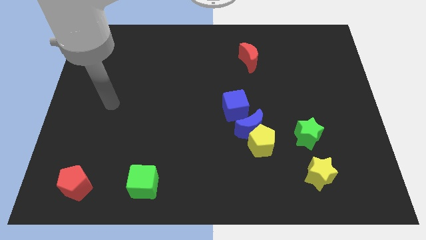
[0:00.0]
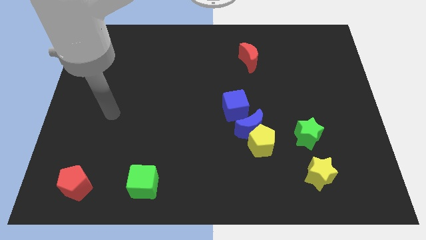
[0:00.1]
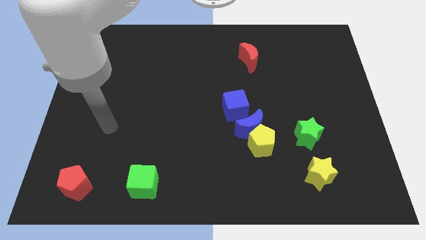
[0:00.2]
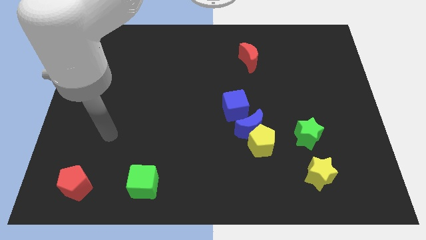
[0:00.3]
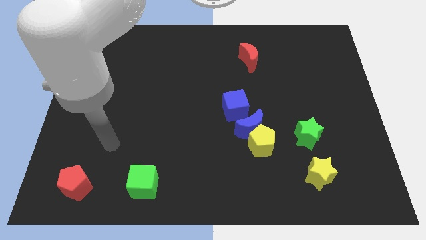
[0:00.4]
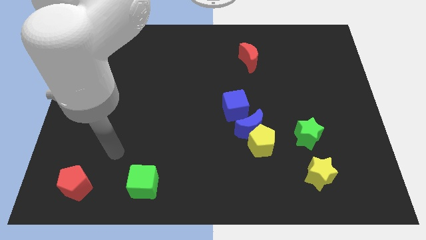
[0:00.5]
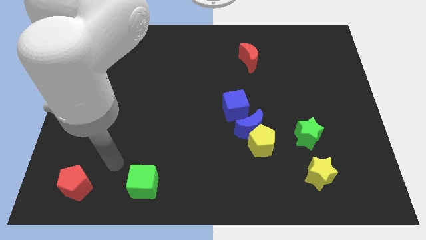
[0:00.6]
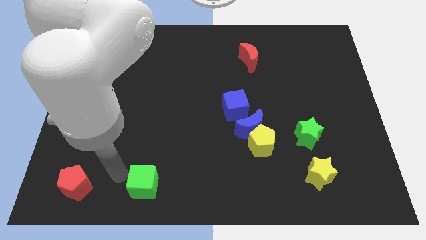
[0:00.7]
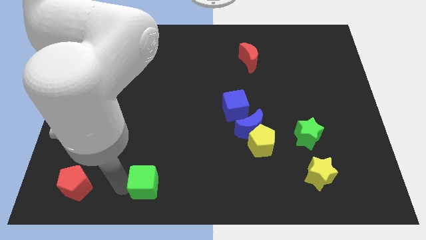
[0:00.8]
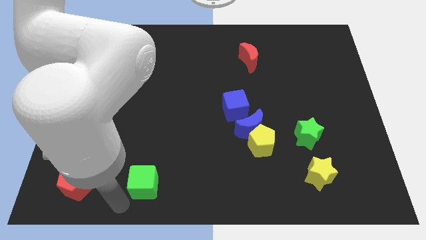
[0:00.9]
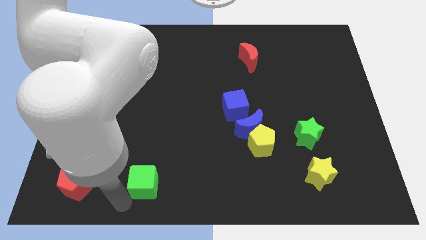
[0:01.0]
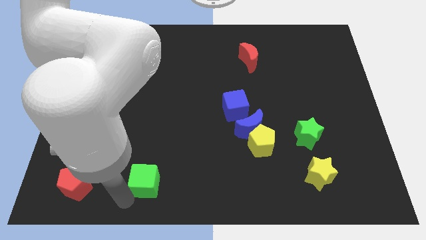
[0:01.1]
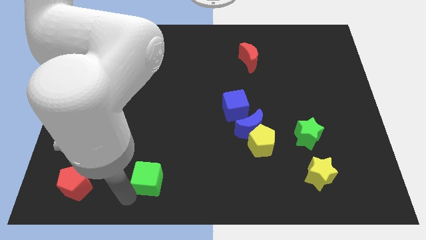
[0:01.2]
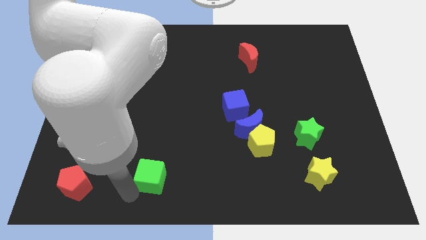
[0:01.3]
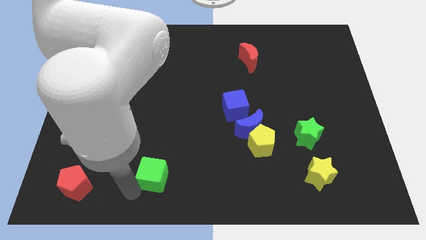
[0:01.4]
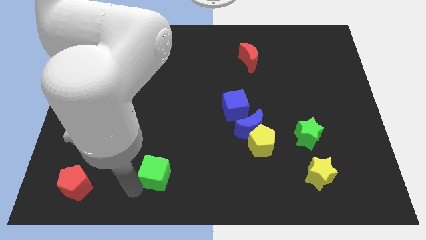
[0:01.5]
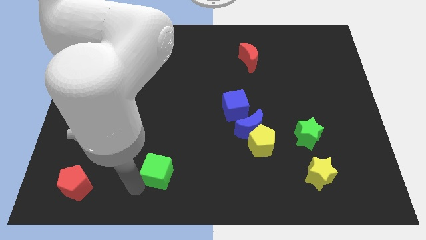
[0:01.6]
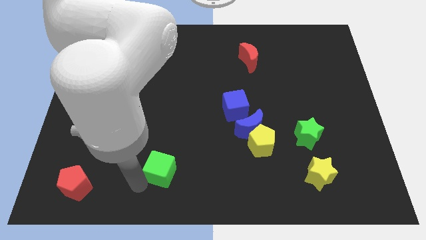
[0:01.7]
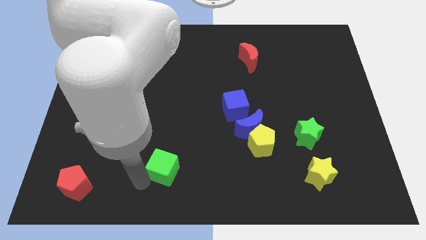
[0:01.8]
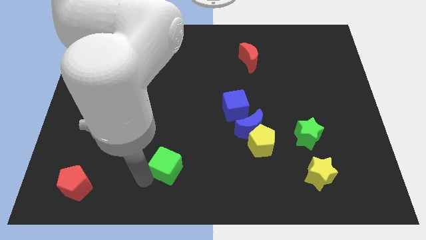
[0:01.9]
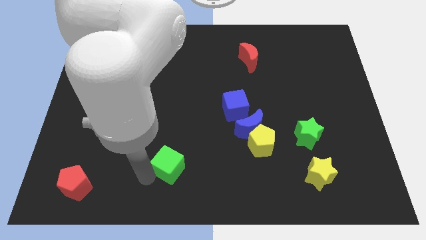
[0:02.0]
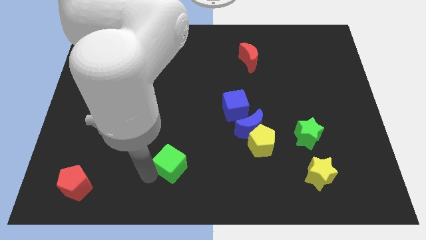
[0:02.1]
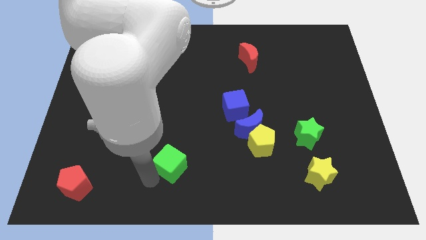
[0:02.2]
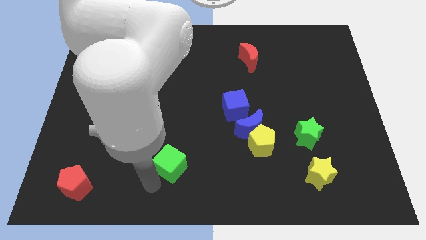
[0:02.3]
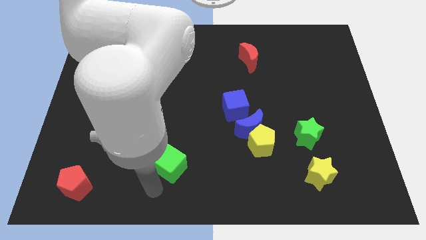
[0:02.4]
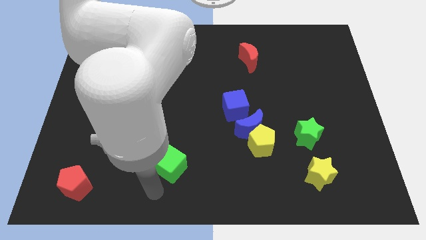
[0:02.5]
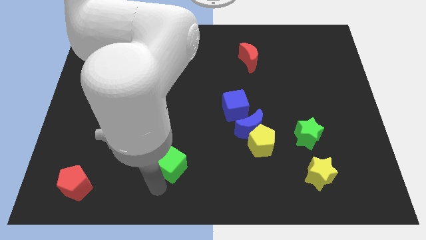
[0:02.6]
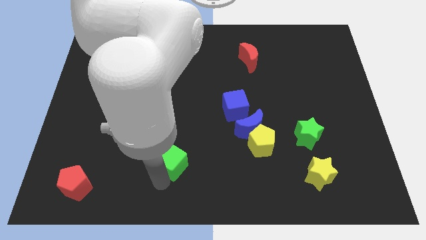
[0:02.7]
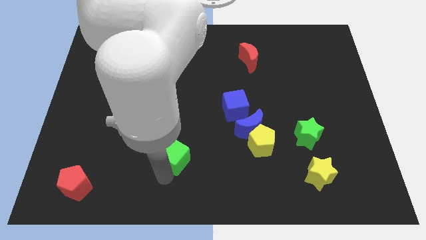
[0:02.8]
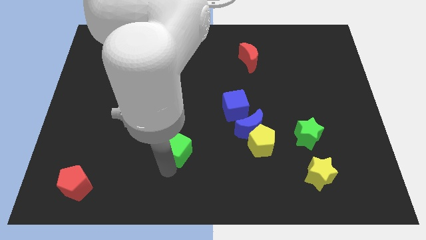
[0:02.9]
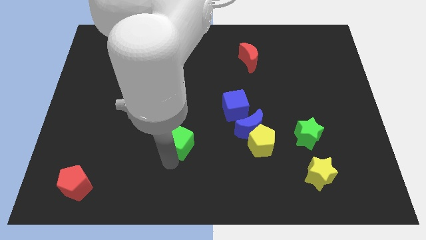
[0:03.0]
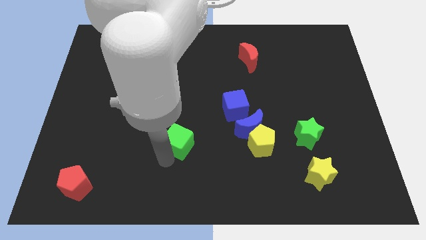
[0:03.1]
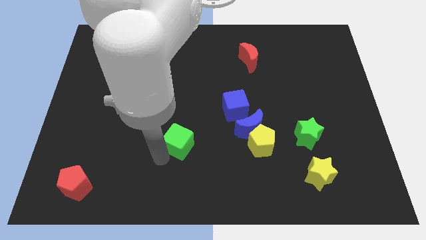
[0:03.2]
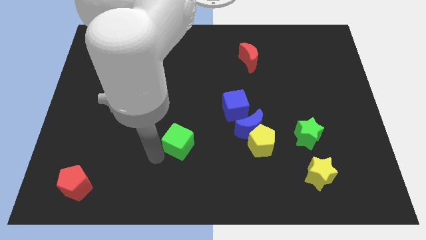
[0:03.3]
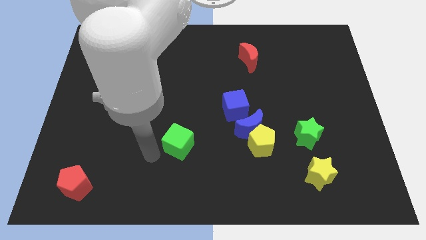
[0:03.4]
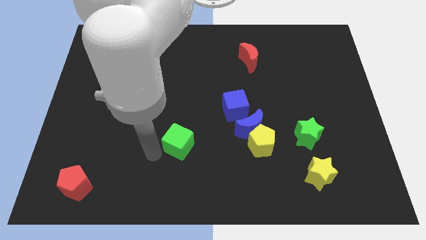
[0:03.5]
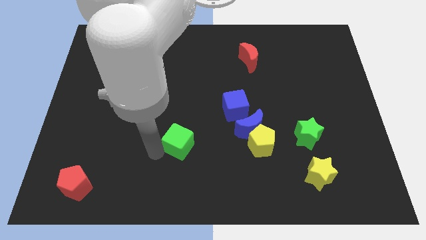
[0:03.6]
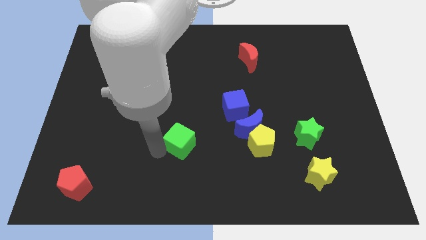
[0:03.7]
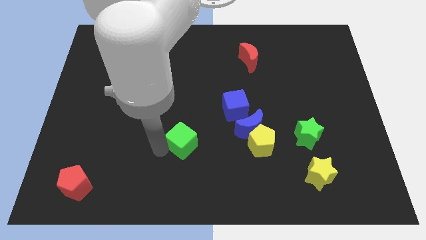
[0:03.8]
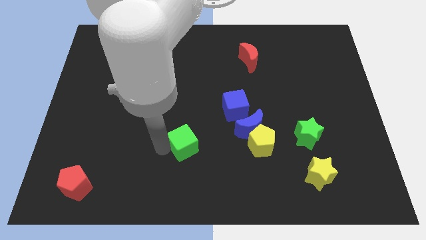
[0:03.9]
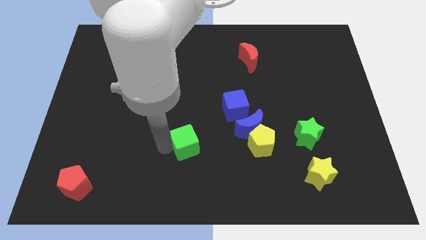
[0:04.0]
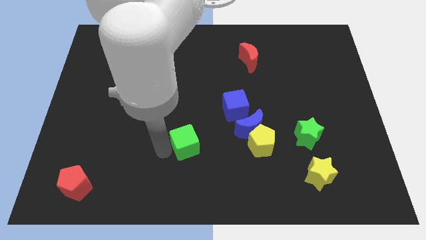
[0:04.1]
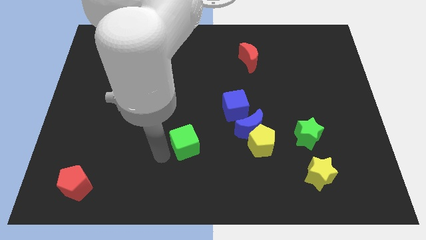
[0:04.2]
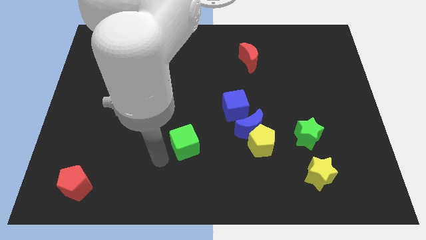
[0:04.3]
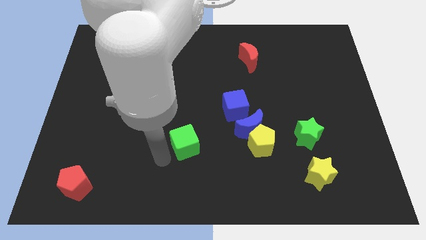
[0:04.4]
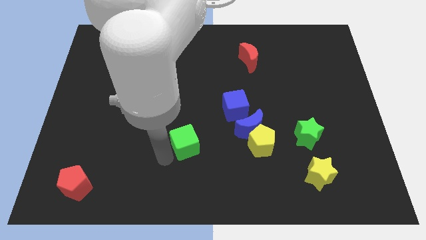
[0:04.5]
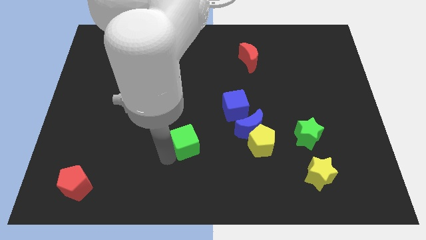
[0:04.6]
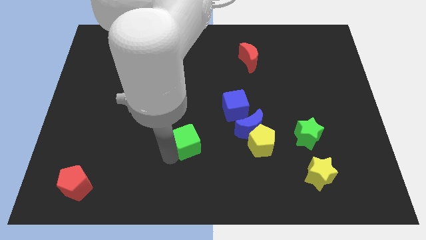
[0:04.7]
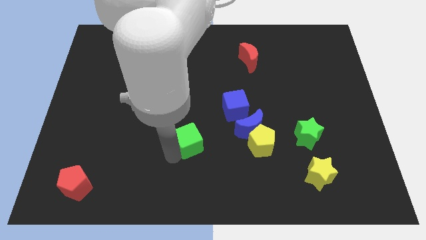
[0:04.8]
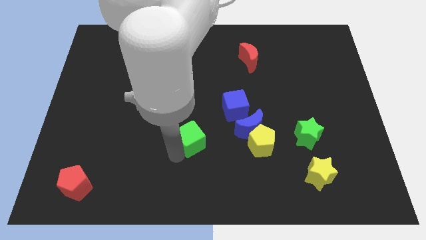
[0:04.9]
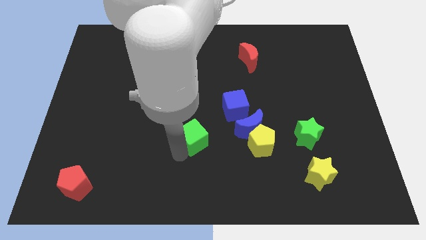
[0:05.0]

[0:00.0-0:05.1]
push the green cube to the bottom left of the blue cube

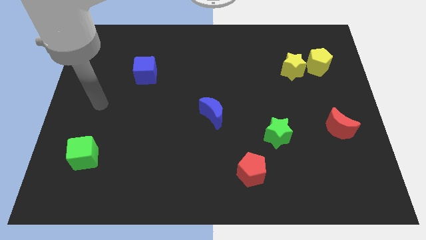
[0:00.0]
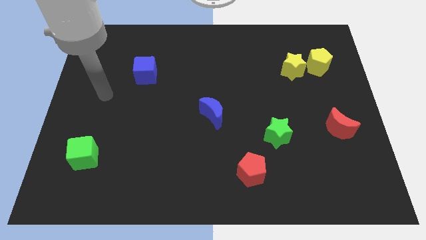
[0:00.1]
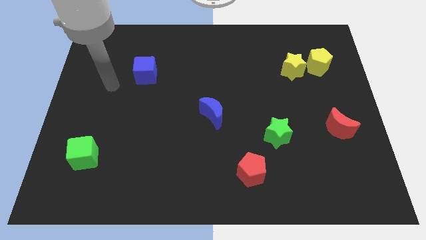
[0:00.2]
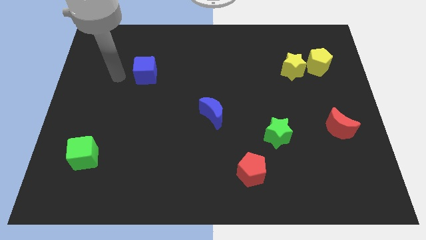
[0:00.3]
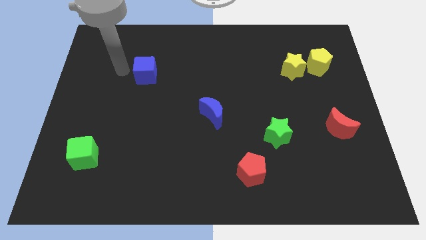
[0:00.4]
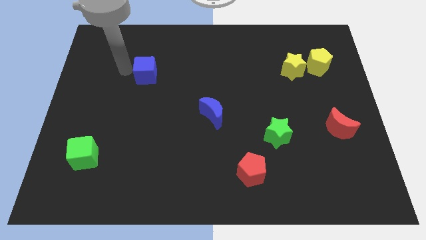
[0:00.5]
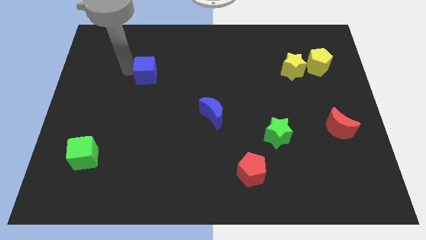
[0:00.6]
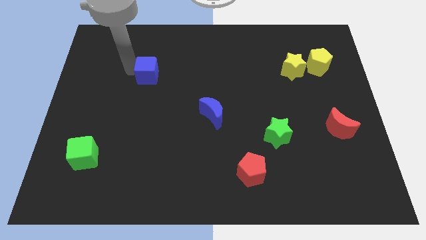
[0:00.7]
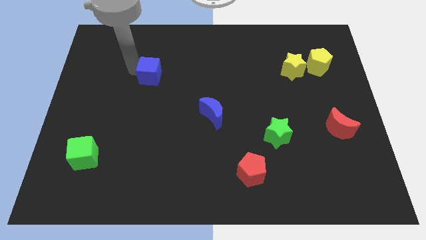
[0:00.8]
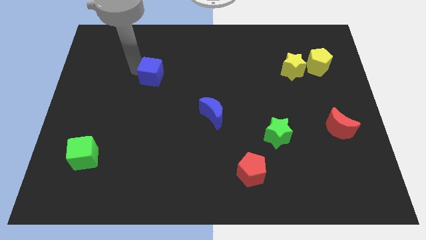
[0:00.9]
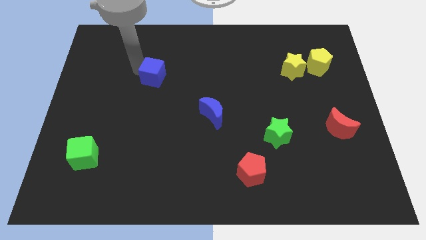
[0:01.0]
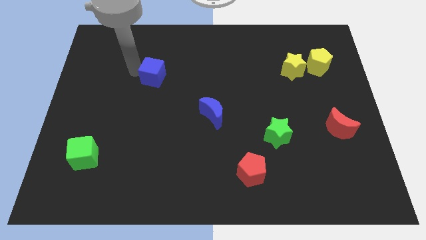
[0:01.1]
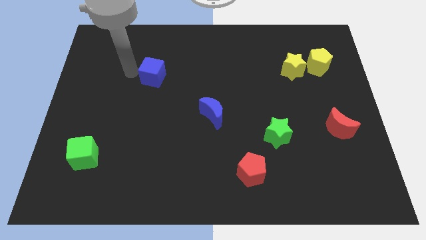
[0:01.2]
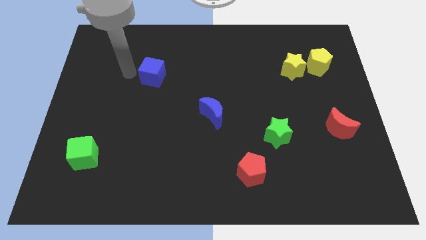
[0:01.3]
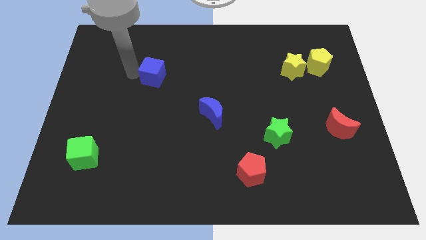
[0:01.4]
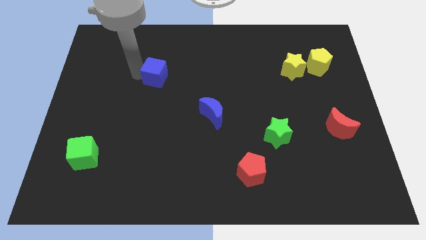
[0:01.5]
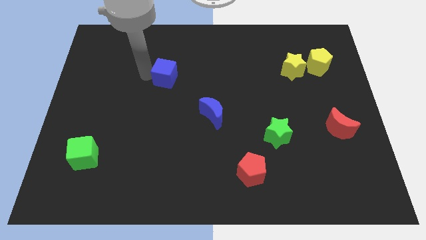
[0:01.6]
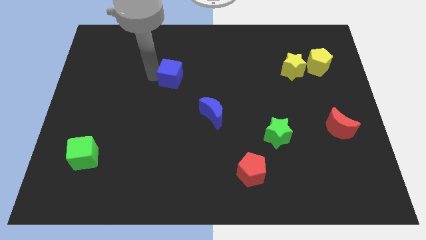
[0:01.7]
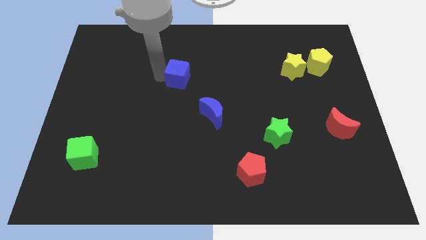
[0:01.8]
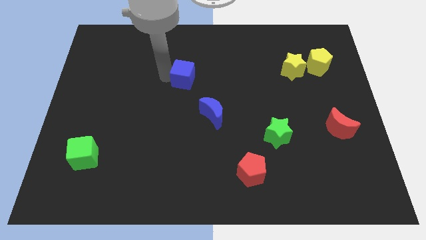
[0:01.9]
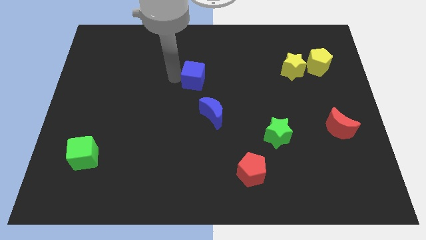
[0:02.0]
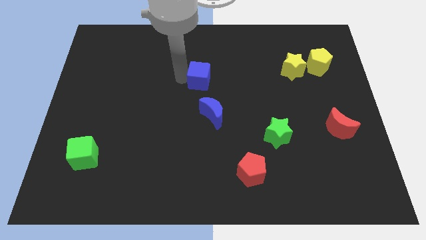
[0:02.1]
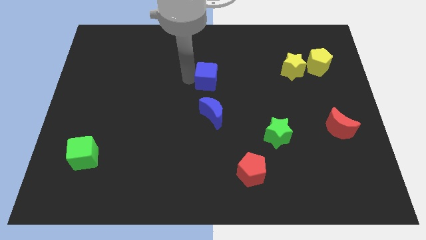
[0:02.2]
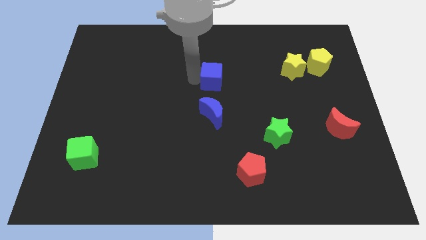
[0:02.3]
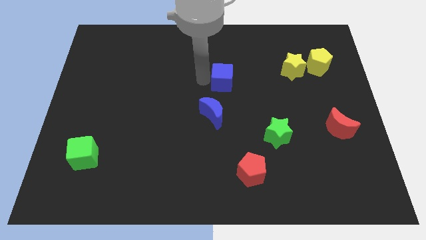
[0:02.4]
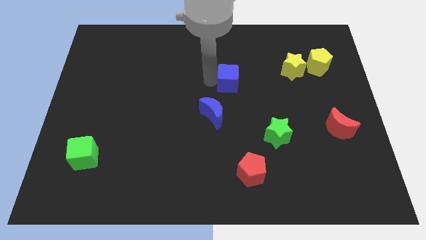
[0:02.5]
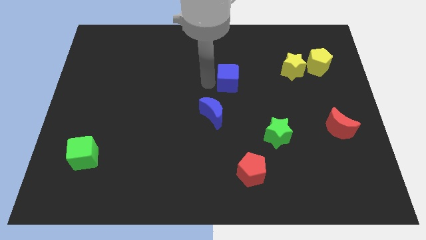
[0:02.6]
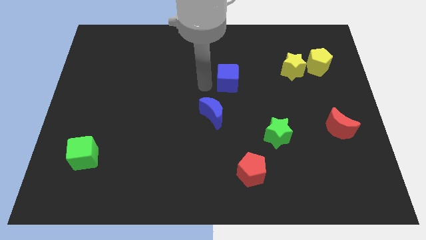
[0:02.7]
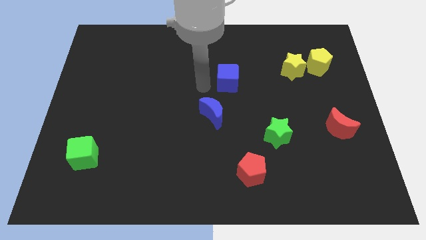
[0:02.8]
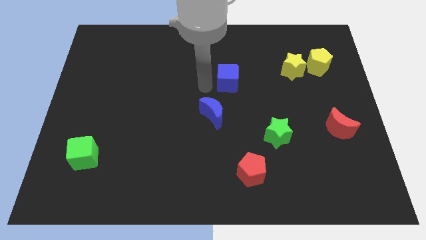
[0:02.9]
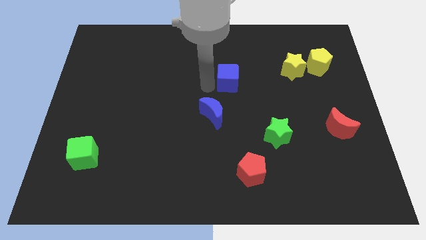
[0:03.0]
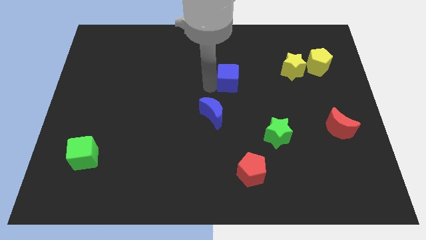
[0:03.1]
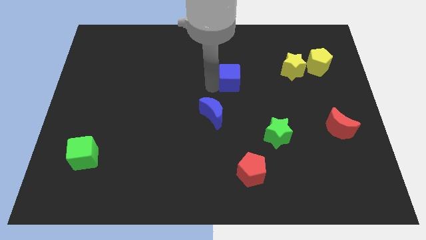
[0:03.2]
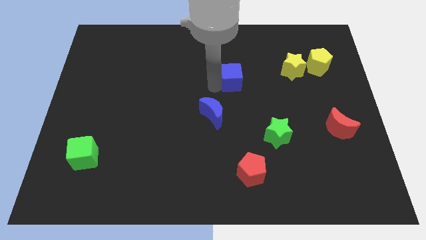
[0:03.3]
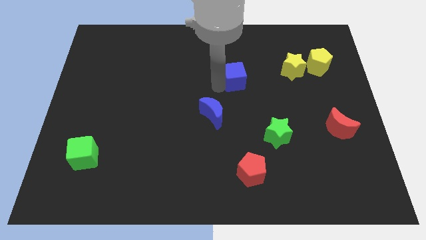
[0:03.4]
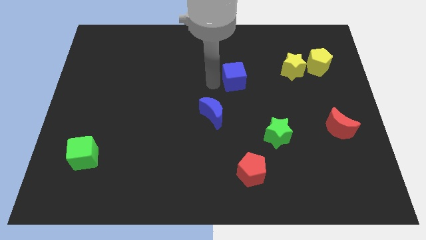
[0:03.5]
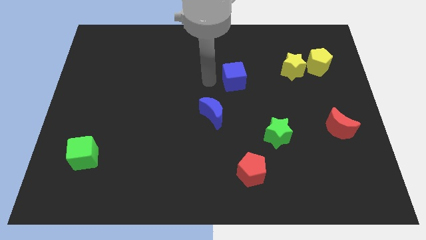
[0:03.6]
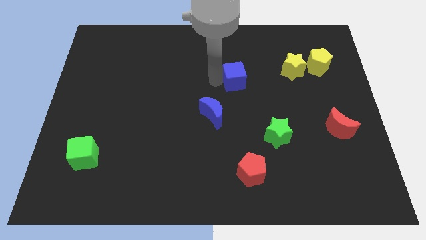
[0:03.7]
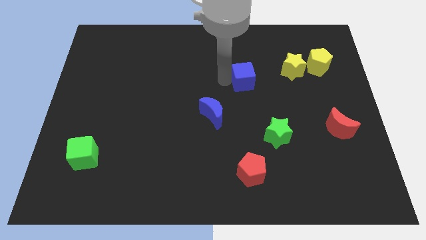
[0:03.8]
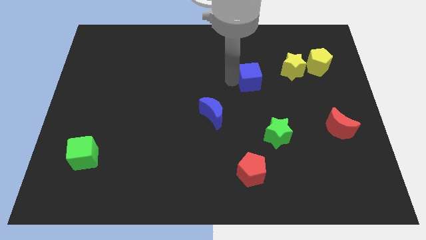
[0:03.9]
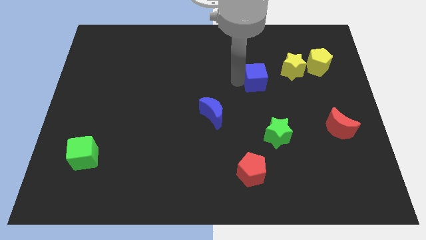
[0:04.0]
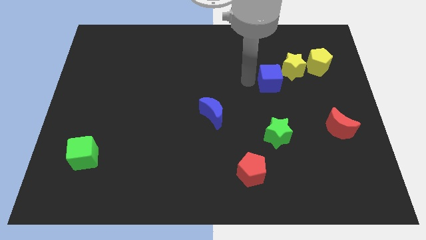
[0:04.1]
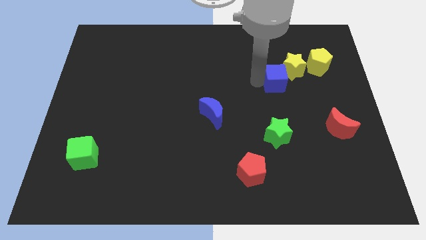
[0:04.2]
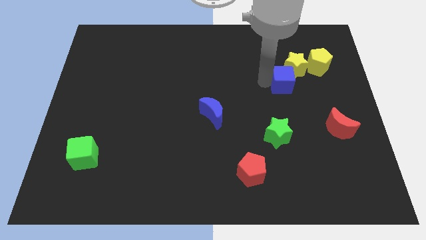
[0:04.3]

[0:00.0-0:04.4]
slide the blue cube diagonally down and to the left of the yellow pentagon
